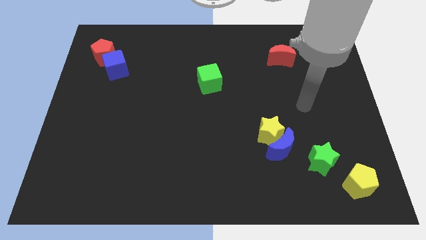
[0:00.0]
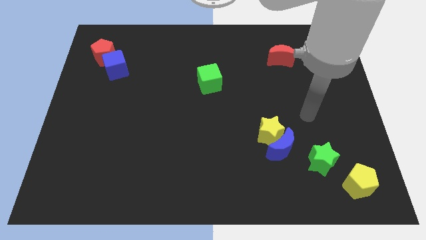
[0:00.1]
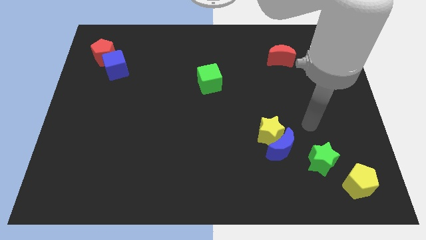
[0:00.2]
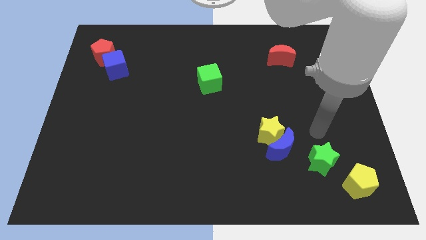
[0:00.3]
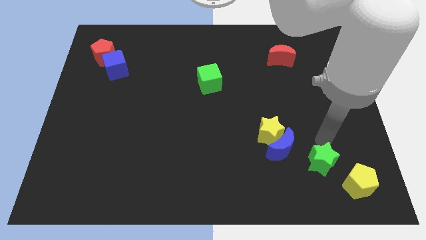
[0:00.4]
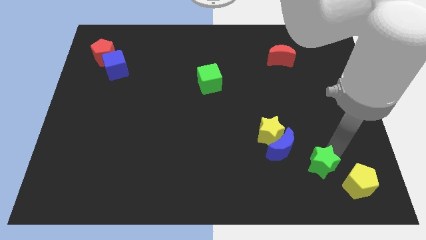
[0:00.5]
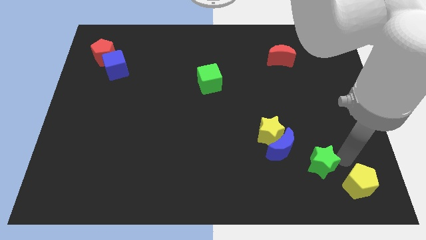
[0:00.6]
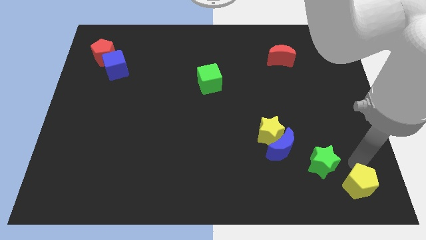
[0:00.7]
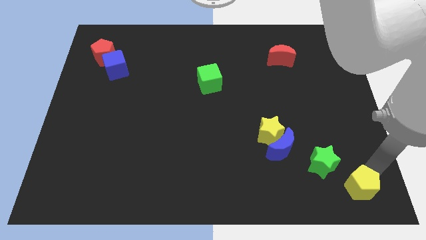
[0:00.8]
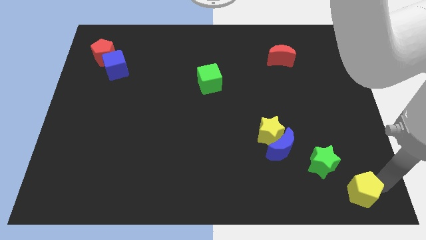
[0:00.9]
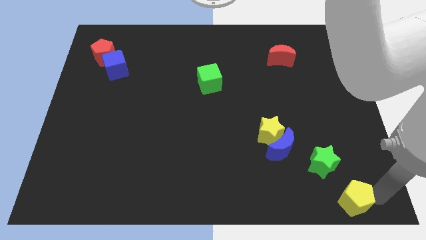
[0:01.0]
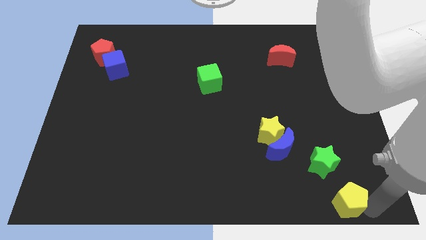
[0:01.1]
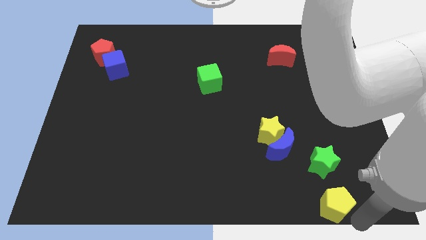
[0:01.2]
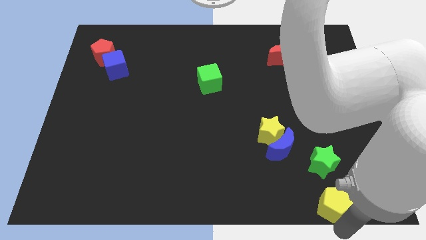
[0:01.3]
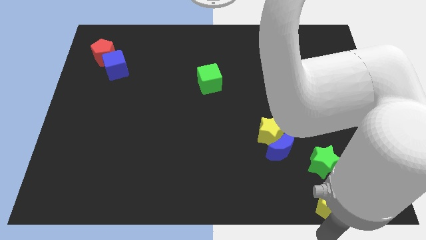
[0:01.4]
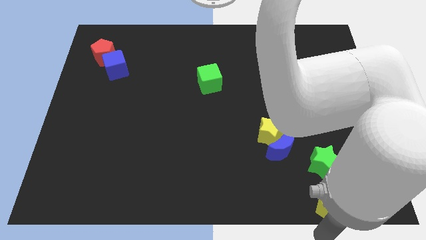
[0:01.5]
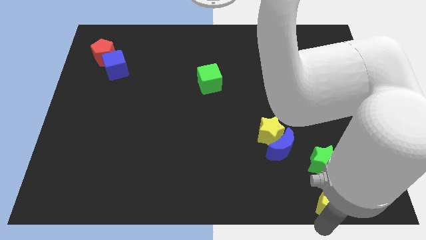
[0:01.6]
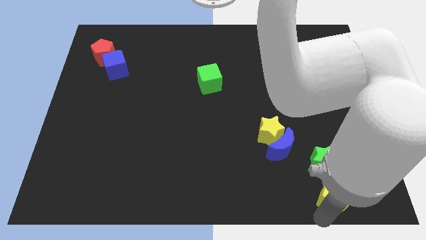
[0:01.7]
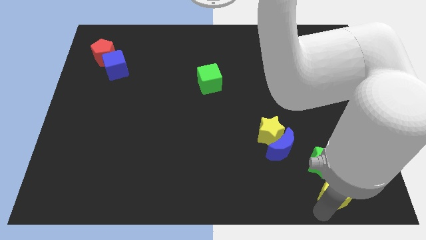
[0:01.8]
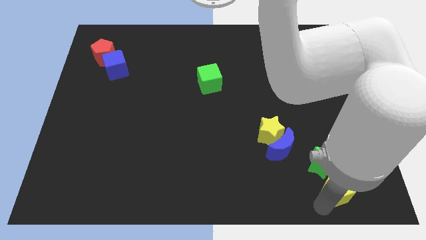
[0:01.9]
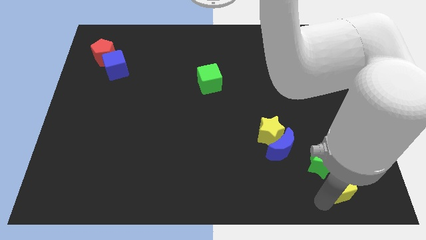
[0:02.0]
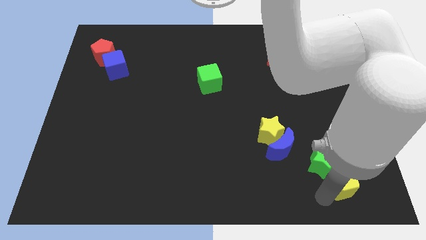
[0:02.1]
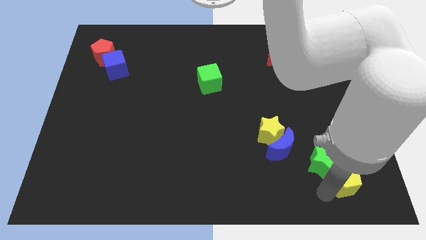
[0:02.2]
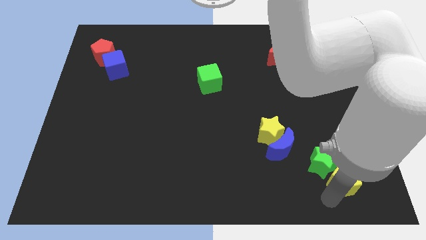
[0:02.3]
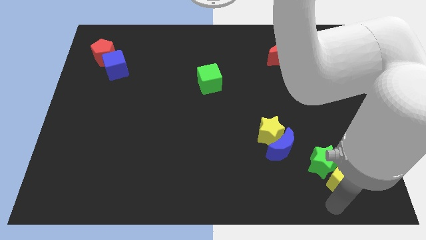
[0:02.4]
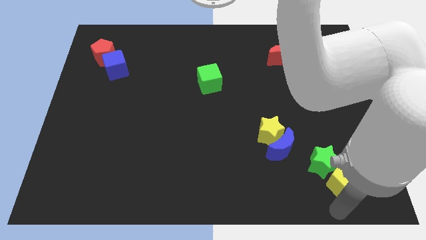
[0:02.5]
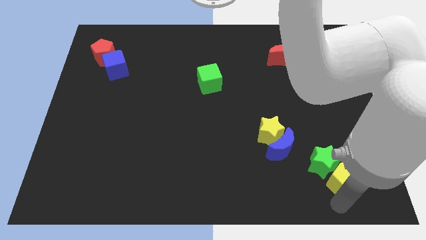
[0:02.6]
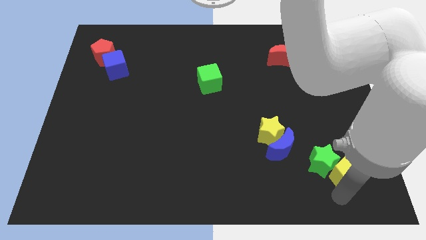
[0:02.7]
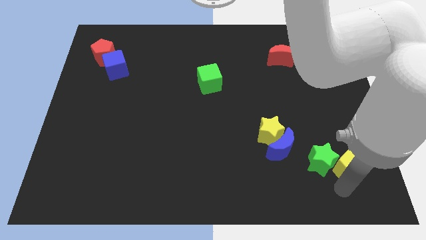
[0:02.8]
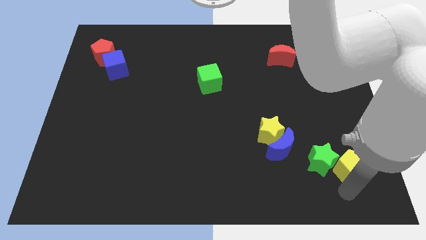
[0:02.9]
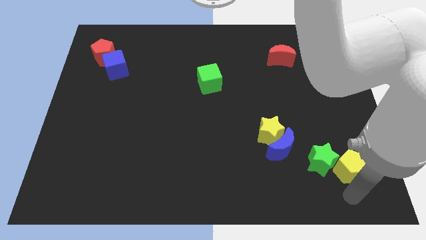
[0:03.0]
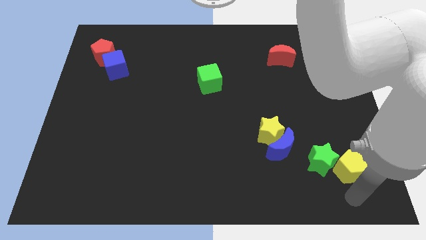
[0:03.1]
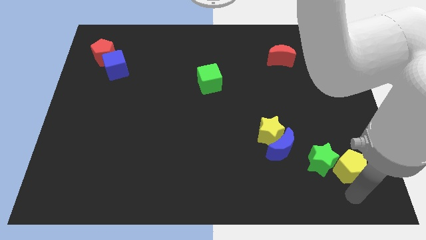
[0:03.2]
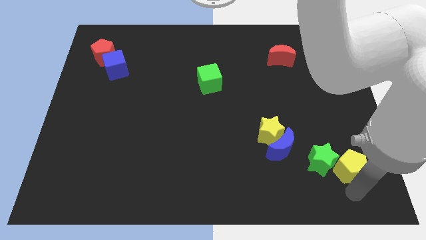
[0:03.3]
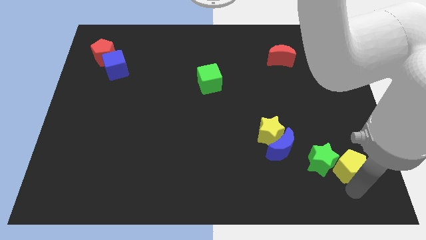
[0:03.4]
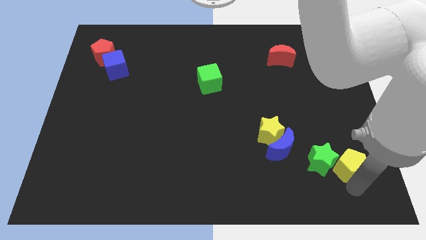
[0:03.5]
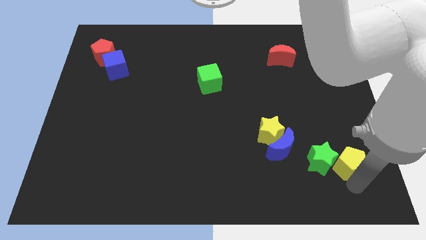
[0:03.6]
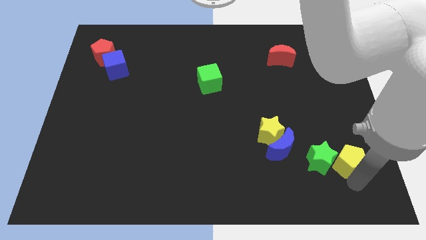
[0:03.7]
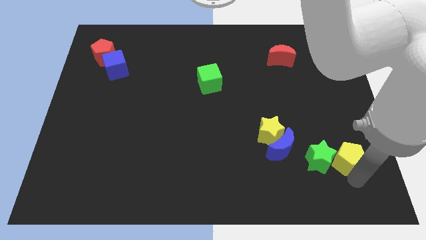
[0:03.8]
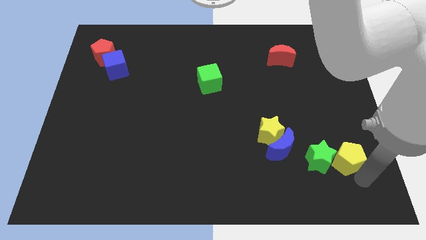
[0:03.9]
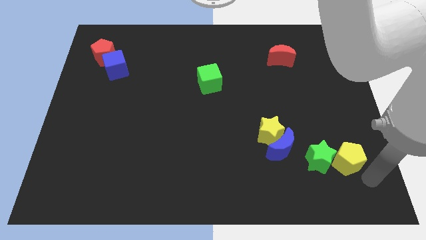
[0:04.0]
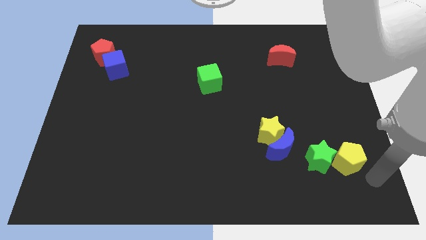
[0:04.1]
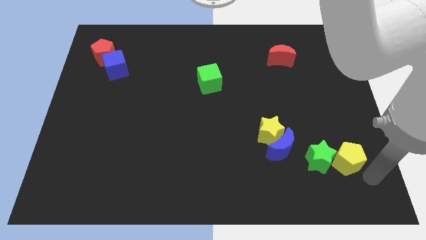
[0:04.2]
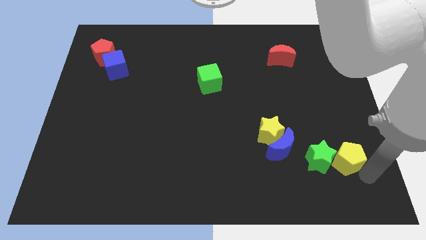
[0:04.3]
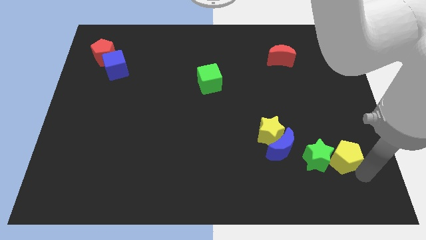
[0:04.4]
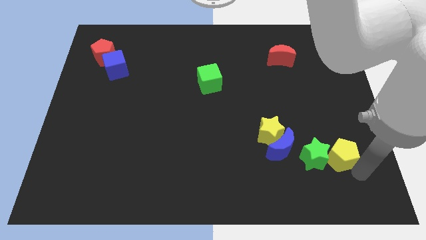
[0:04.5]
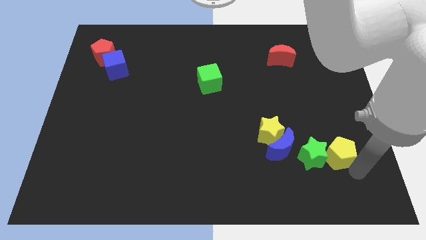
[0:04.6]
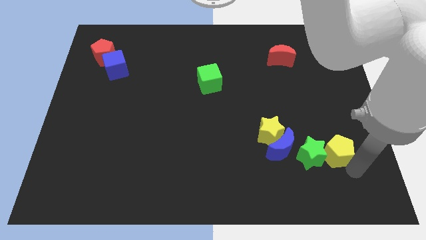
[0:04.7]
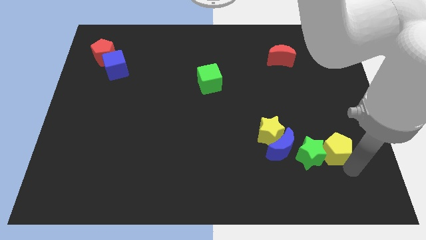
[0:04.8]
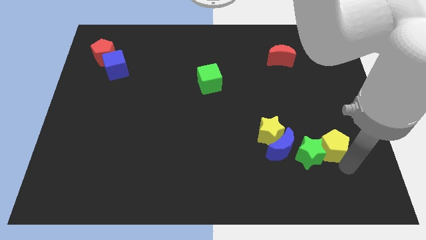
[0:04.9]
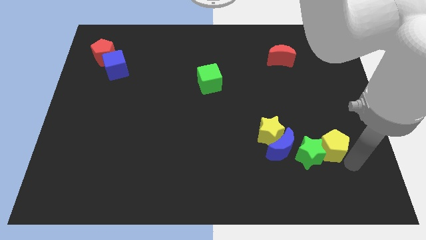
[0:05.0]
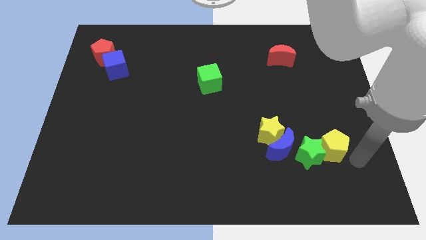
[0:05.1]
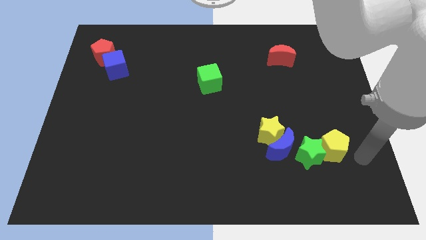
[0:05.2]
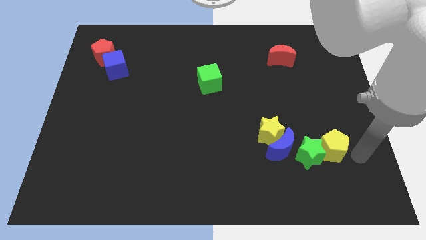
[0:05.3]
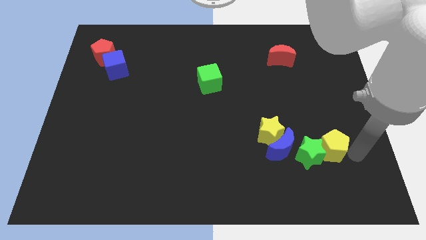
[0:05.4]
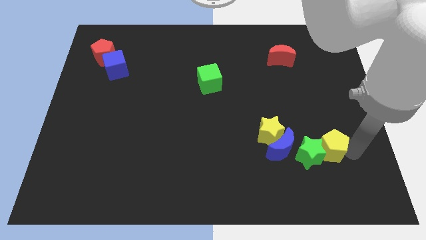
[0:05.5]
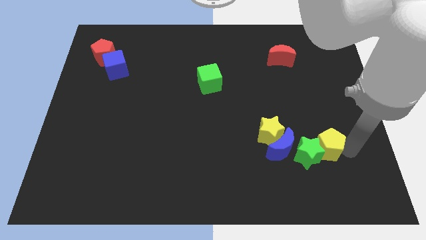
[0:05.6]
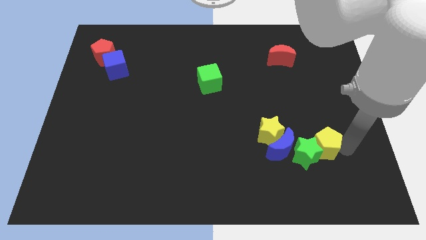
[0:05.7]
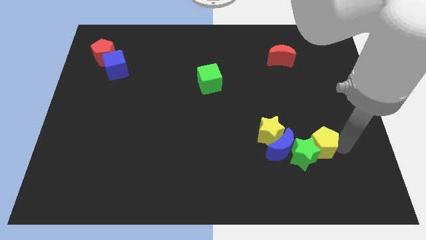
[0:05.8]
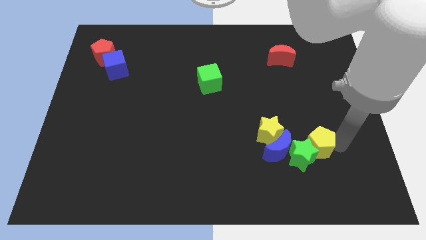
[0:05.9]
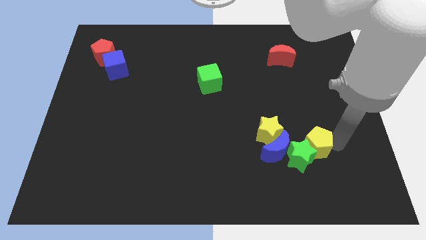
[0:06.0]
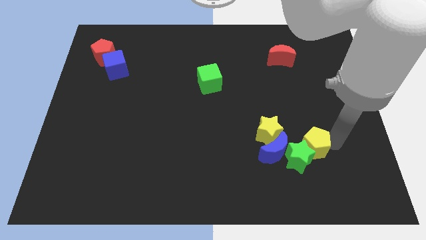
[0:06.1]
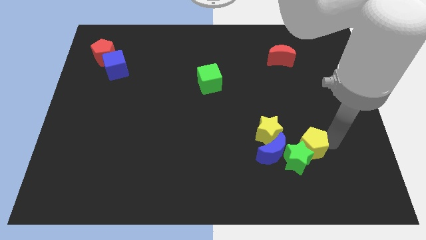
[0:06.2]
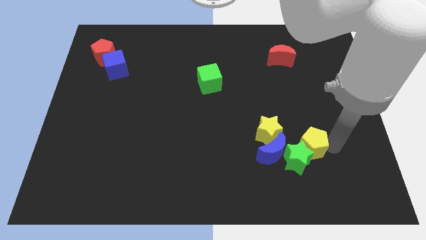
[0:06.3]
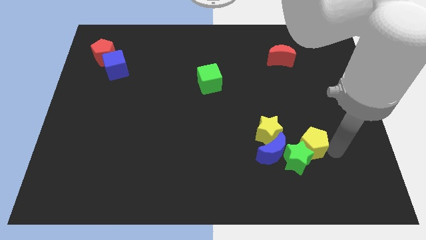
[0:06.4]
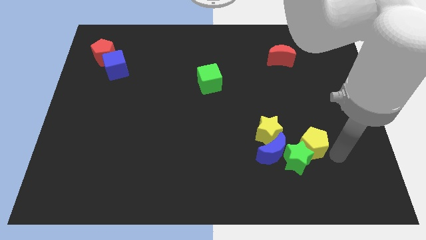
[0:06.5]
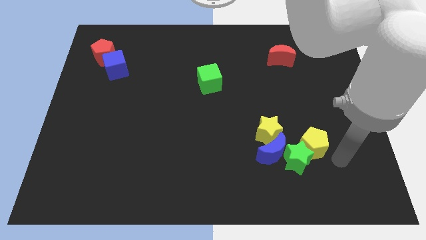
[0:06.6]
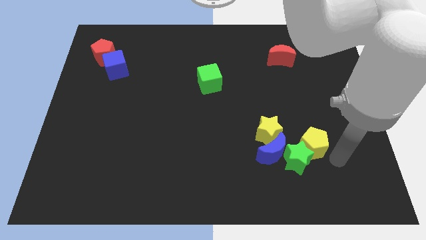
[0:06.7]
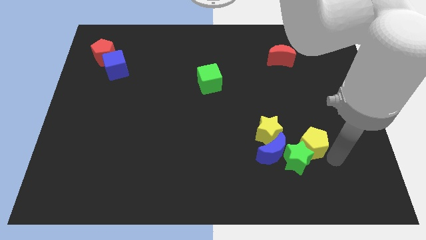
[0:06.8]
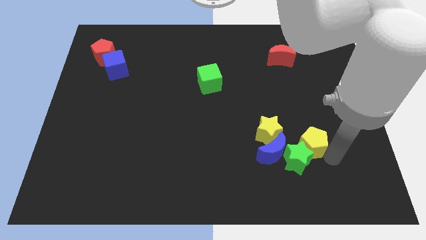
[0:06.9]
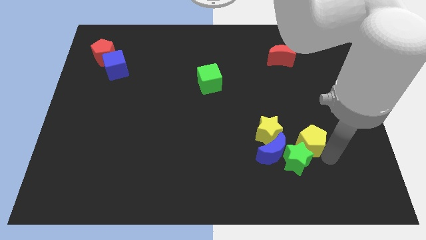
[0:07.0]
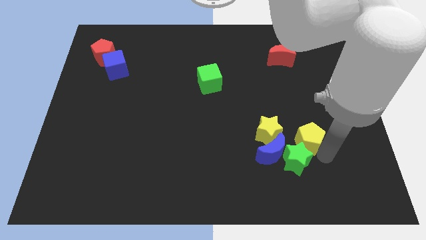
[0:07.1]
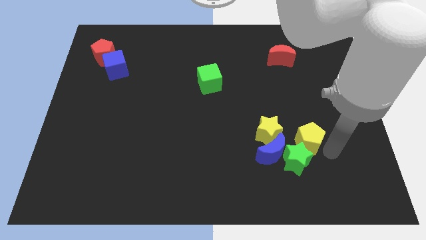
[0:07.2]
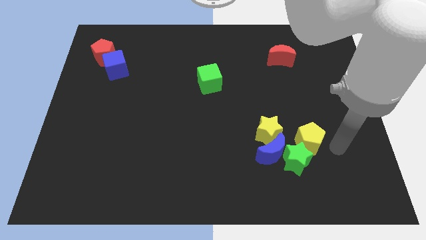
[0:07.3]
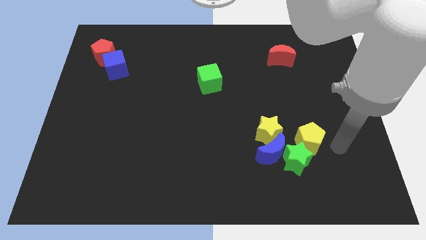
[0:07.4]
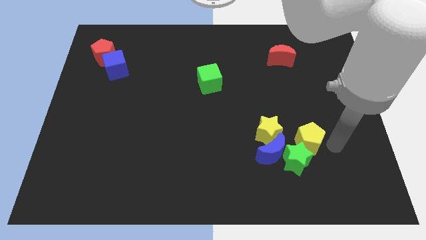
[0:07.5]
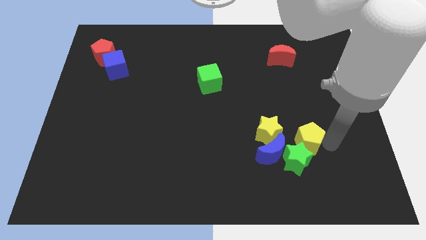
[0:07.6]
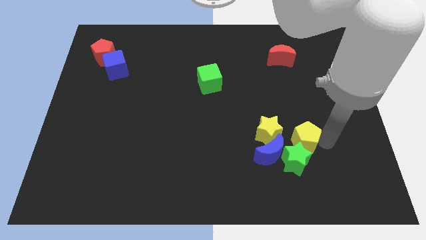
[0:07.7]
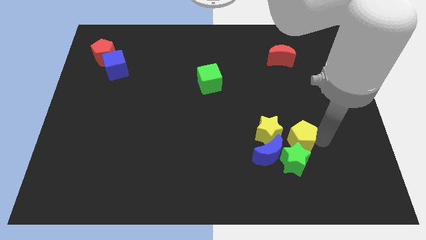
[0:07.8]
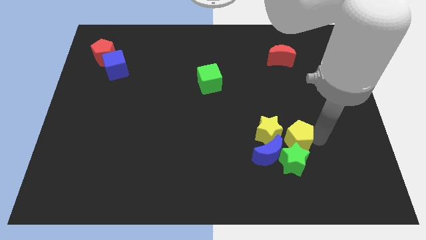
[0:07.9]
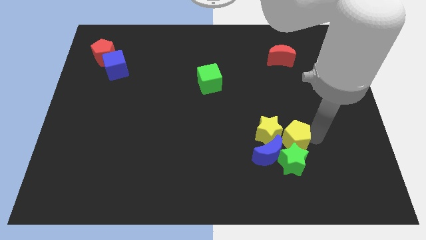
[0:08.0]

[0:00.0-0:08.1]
put the yellow pentagon next to the yellow star
